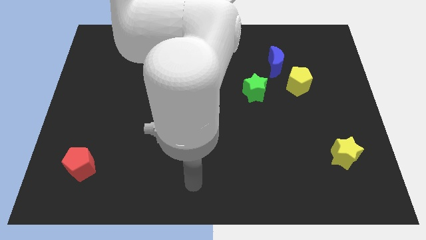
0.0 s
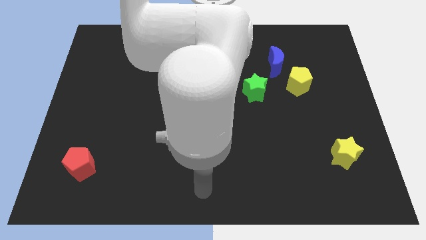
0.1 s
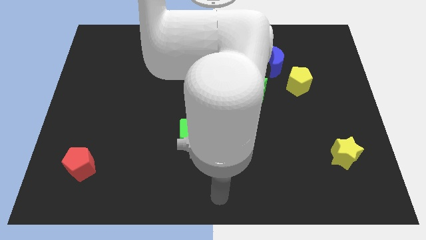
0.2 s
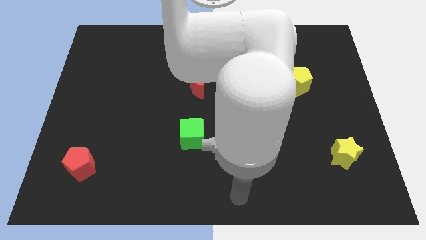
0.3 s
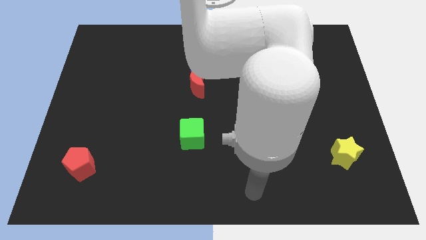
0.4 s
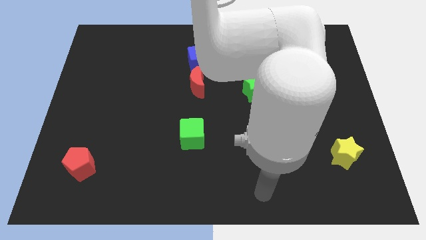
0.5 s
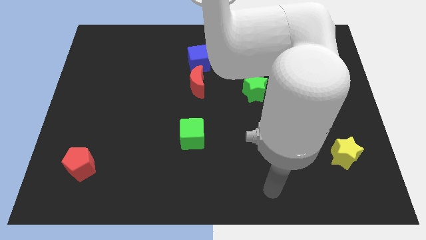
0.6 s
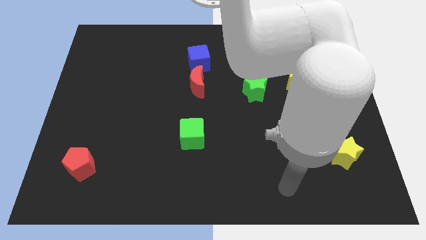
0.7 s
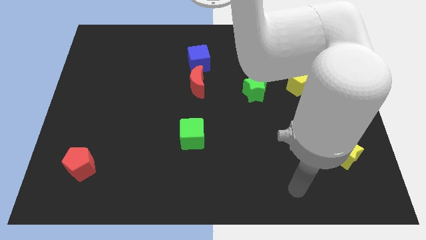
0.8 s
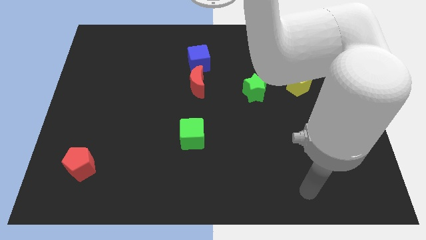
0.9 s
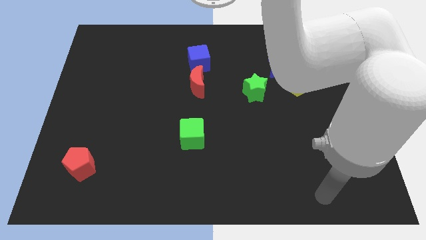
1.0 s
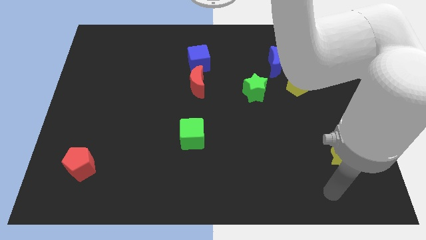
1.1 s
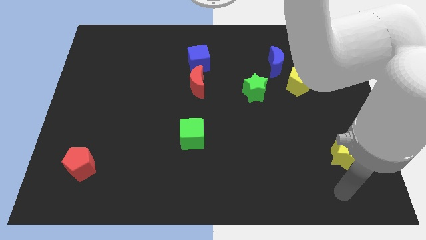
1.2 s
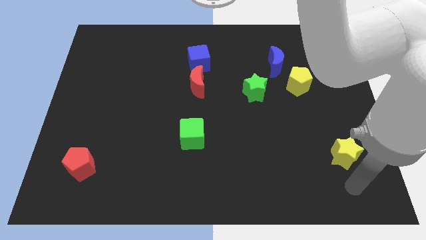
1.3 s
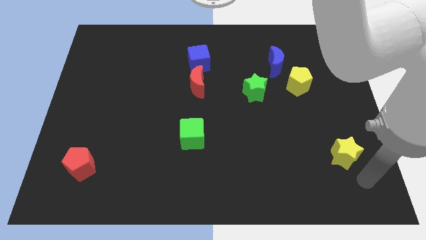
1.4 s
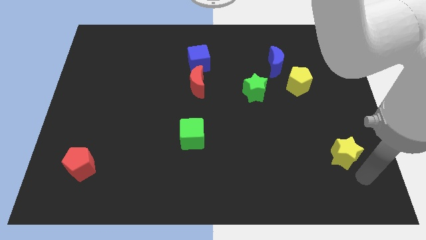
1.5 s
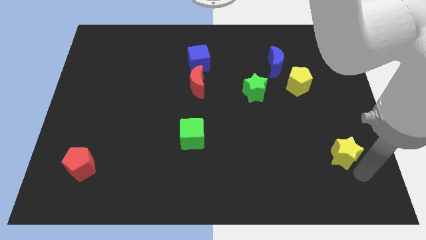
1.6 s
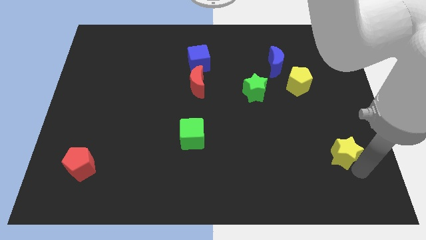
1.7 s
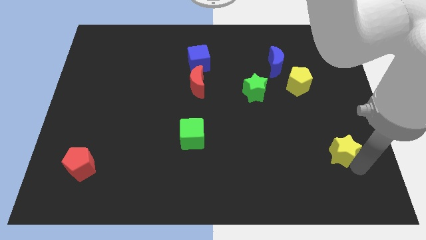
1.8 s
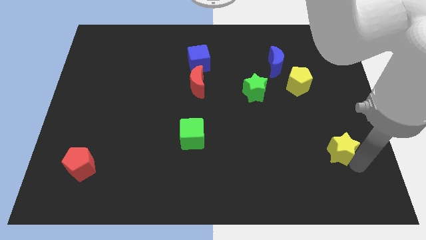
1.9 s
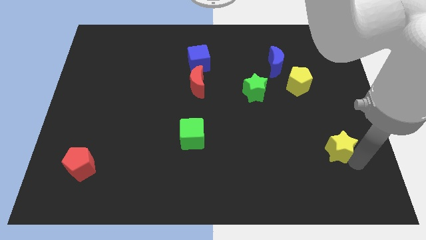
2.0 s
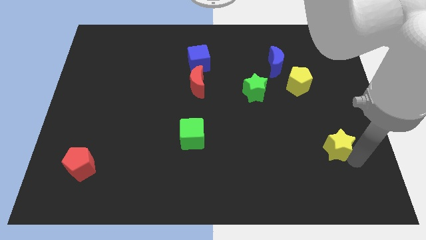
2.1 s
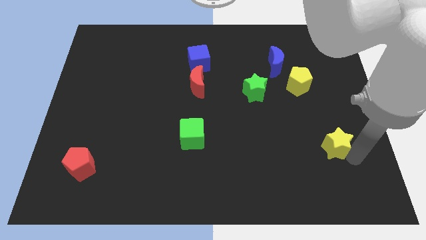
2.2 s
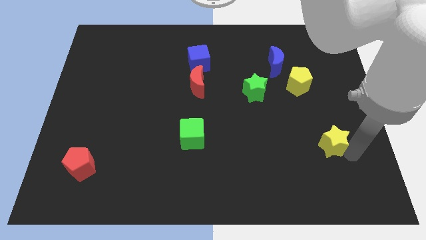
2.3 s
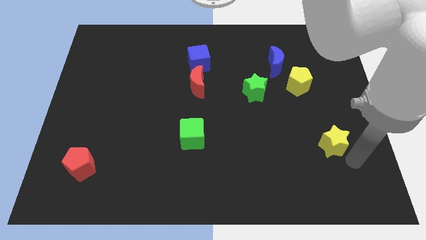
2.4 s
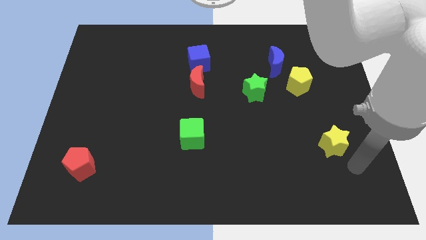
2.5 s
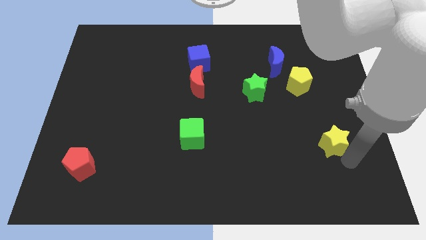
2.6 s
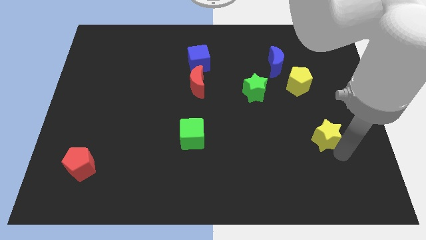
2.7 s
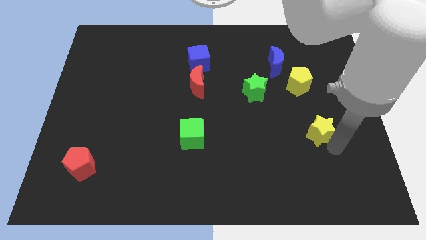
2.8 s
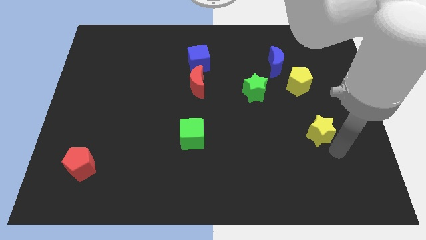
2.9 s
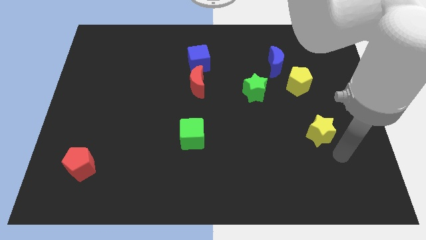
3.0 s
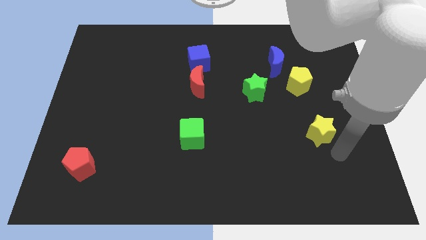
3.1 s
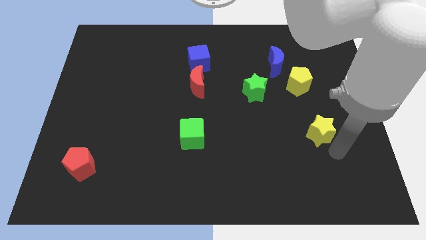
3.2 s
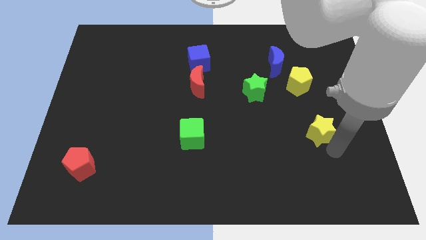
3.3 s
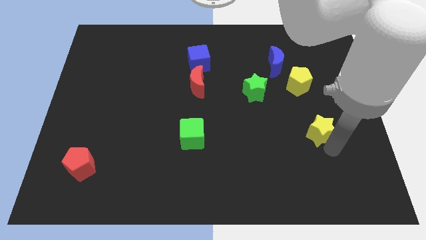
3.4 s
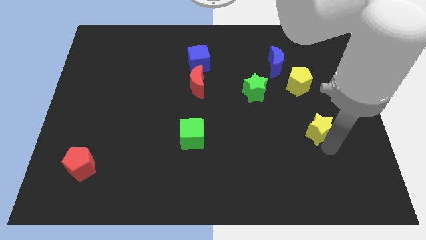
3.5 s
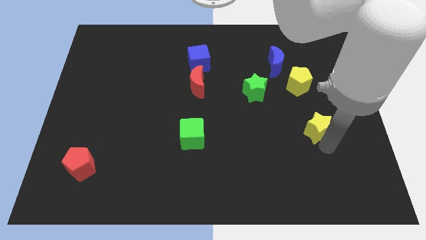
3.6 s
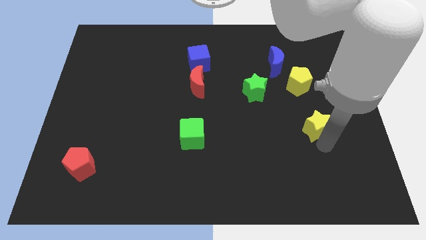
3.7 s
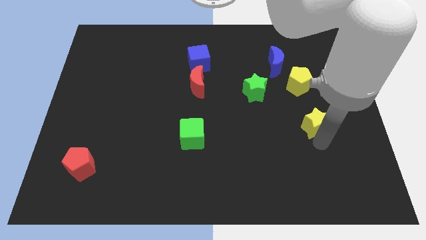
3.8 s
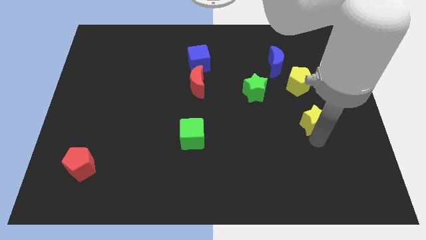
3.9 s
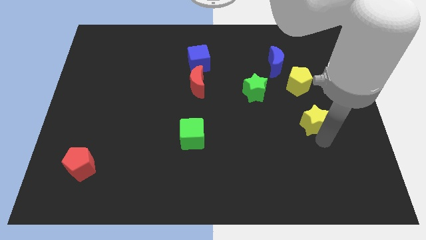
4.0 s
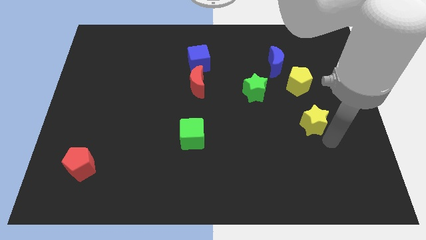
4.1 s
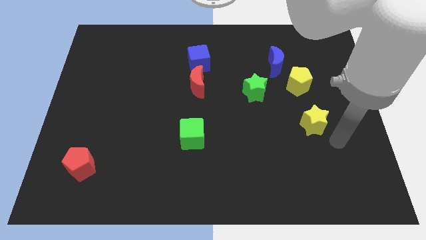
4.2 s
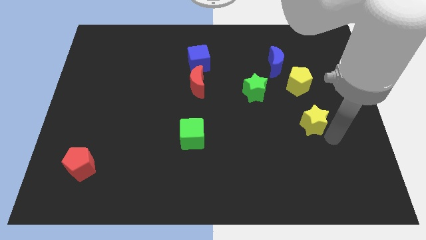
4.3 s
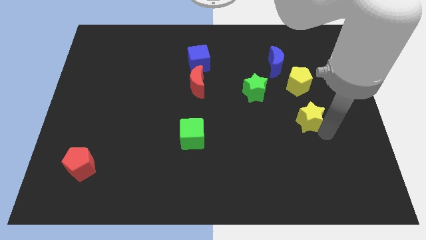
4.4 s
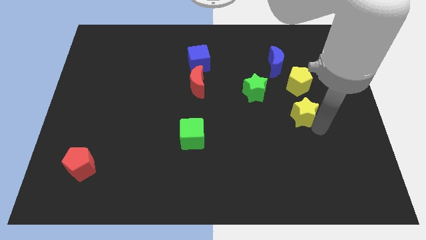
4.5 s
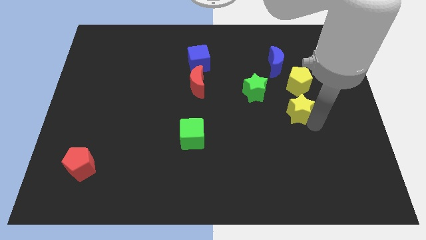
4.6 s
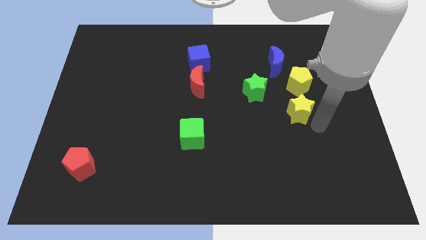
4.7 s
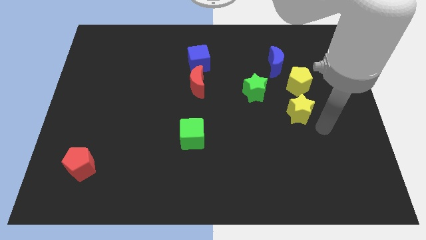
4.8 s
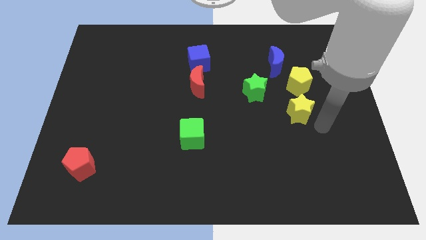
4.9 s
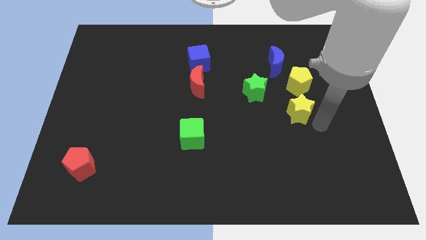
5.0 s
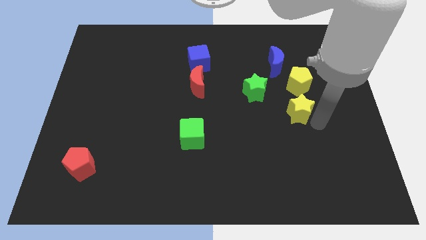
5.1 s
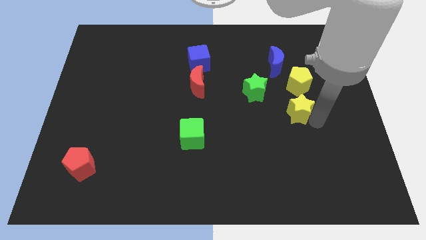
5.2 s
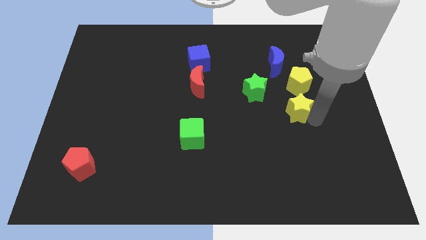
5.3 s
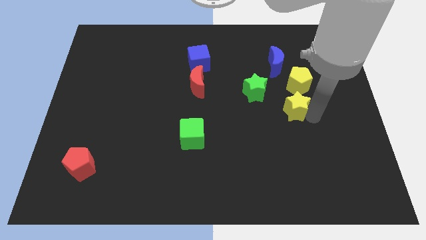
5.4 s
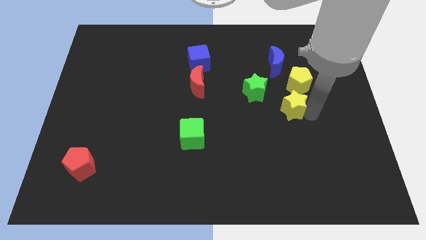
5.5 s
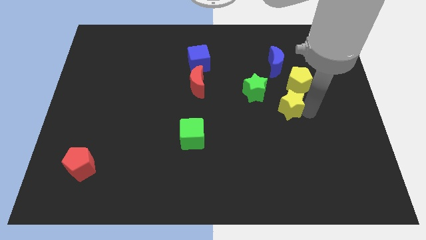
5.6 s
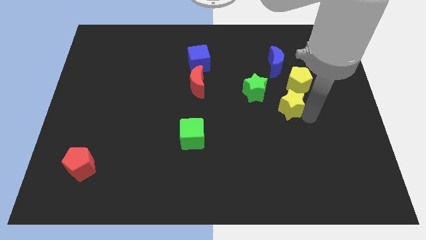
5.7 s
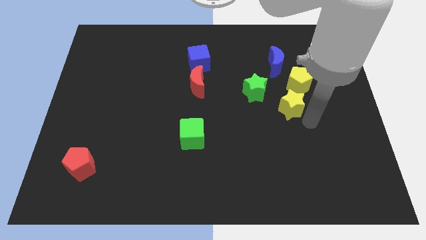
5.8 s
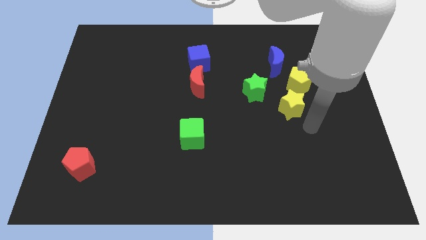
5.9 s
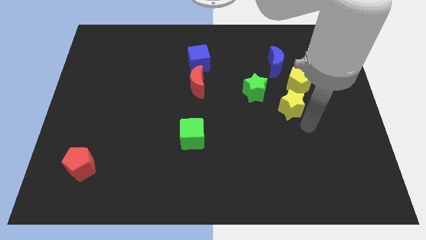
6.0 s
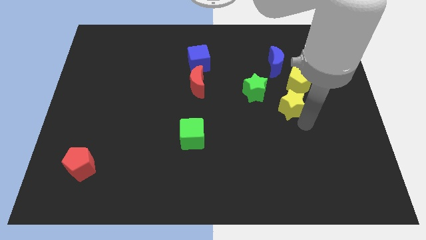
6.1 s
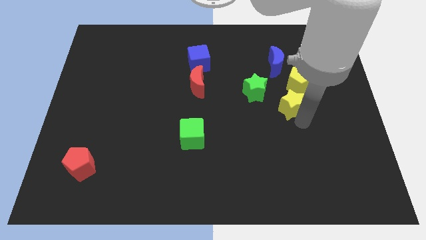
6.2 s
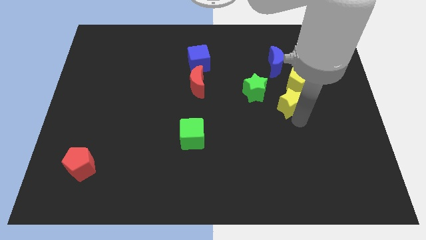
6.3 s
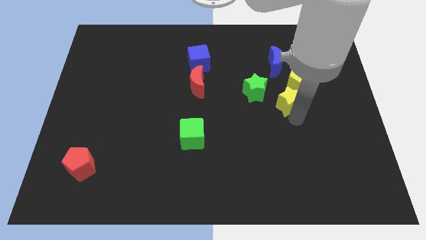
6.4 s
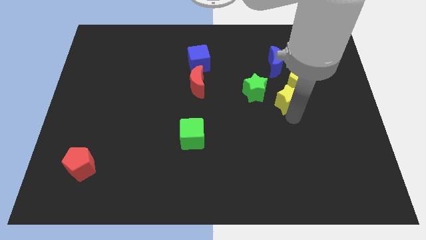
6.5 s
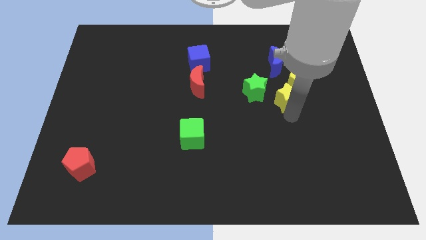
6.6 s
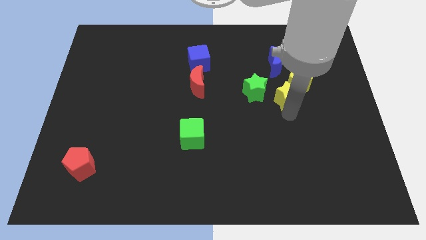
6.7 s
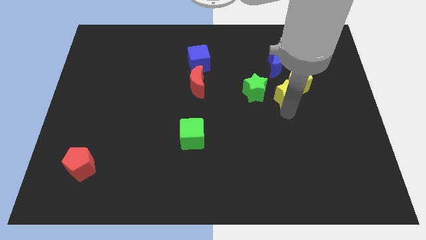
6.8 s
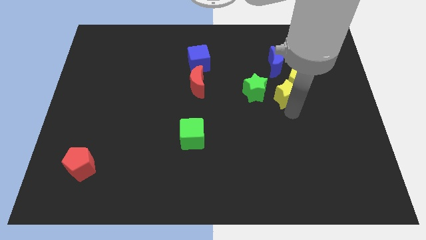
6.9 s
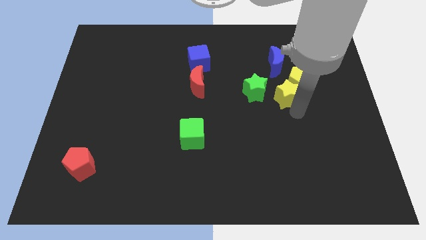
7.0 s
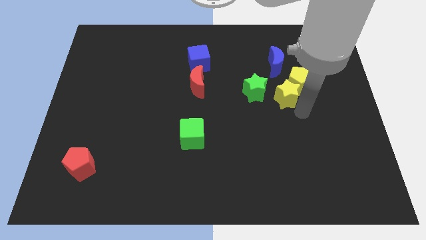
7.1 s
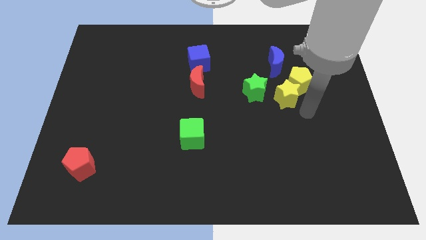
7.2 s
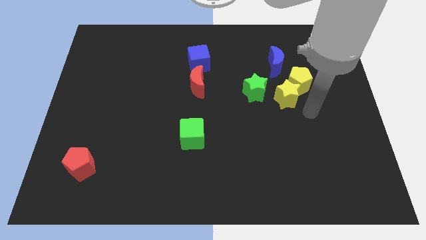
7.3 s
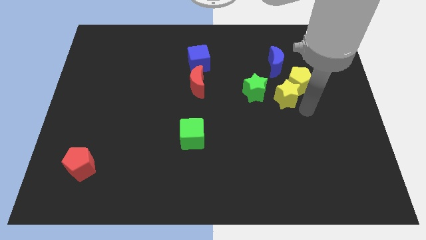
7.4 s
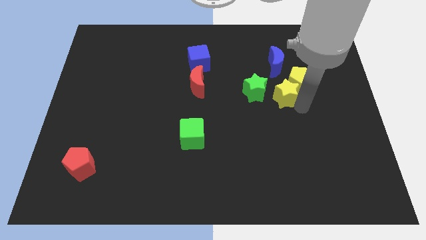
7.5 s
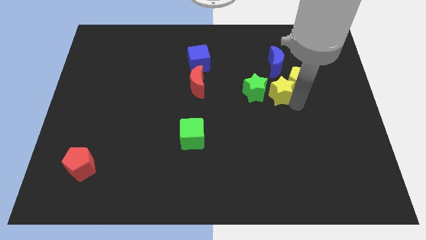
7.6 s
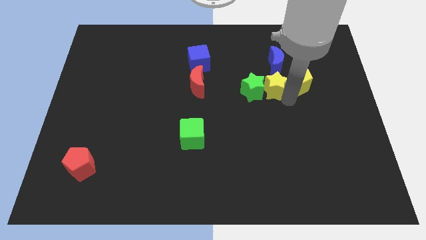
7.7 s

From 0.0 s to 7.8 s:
slide the yellow star up and then left

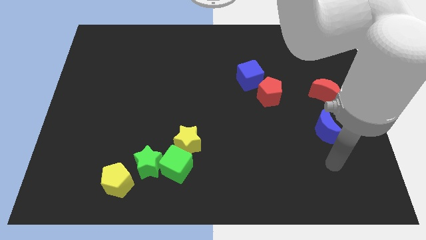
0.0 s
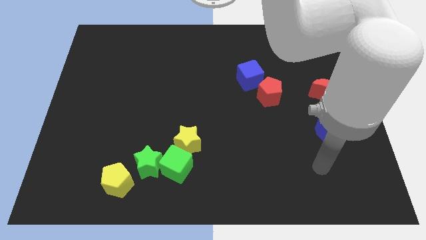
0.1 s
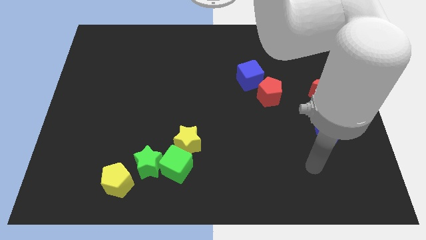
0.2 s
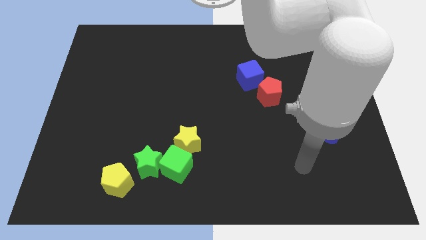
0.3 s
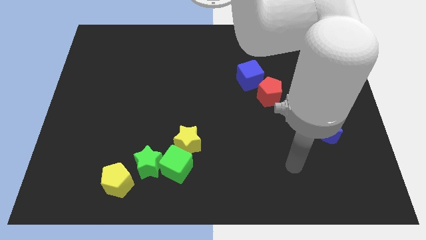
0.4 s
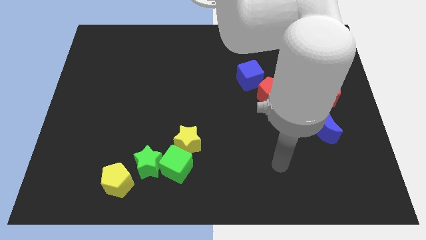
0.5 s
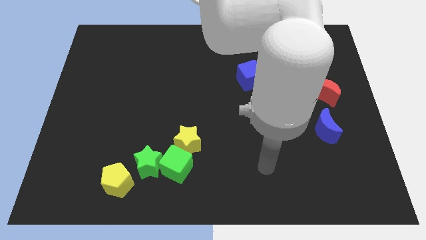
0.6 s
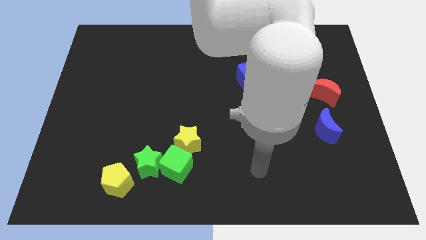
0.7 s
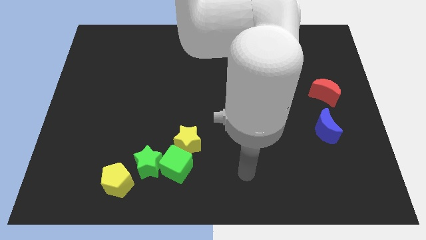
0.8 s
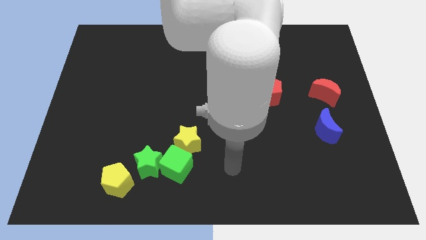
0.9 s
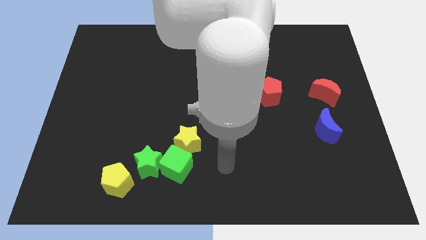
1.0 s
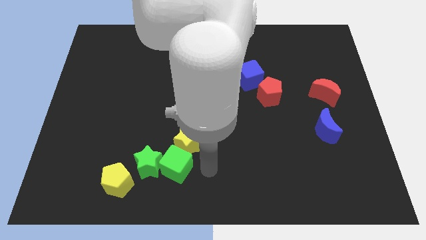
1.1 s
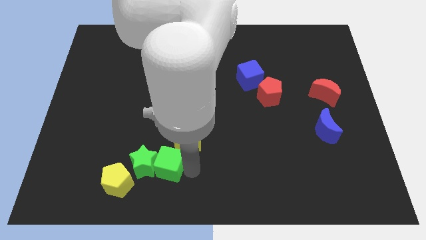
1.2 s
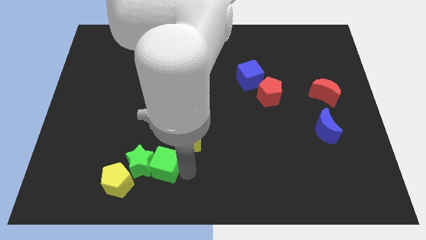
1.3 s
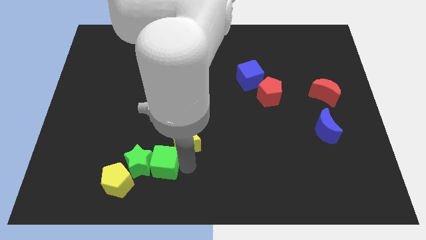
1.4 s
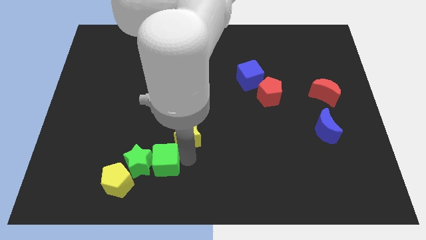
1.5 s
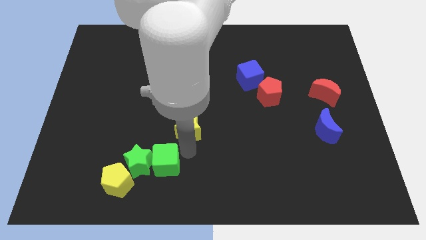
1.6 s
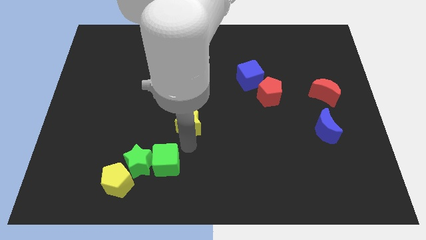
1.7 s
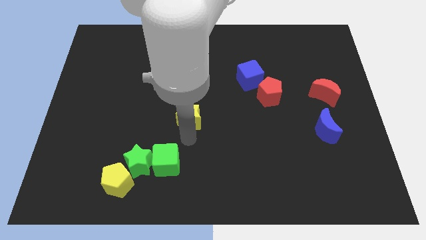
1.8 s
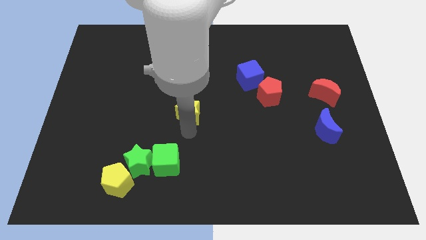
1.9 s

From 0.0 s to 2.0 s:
slide the yellow star upwards a little
